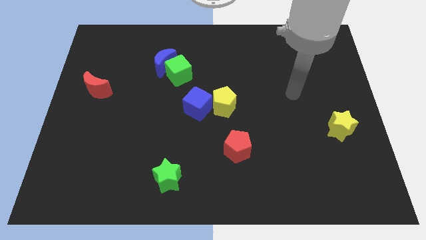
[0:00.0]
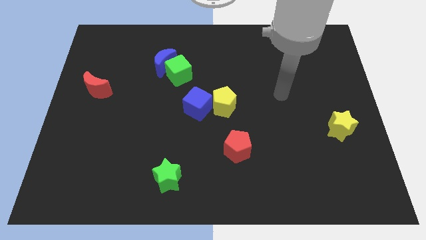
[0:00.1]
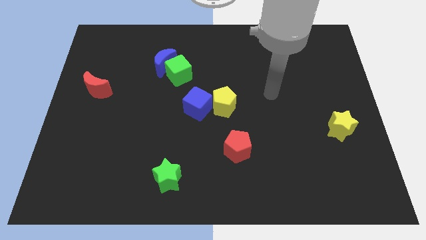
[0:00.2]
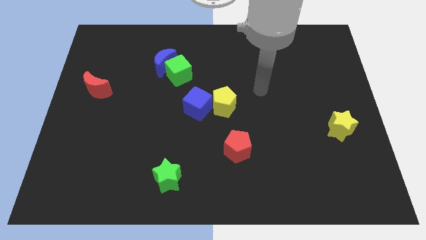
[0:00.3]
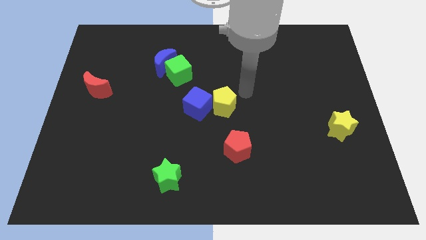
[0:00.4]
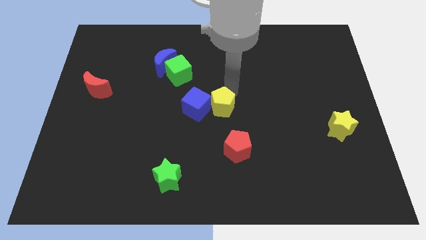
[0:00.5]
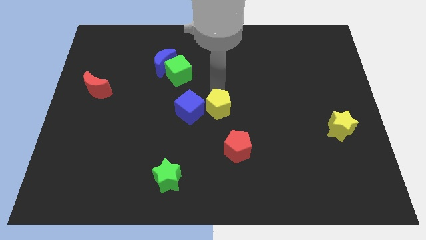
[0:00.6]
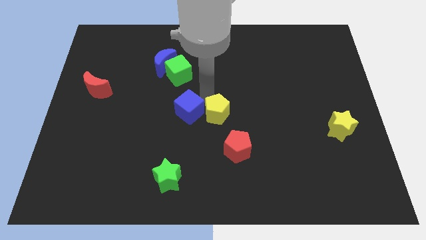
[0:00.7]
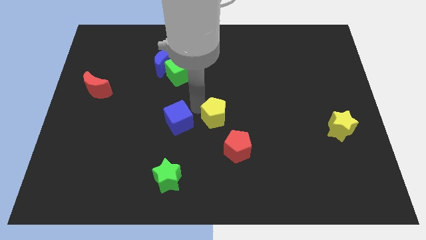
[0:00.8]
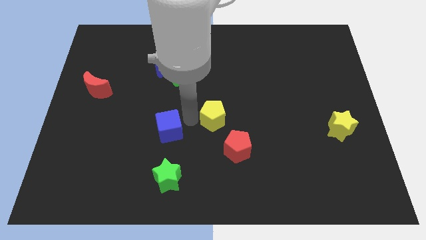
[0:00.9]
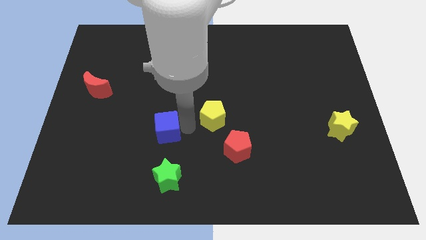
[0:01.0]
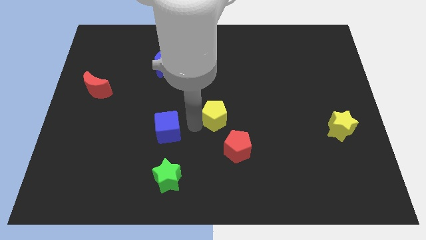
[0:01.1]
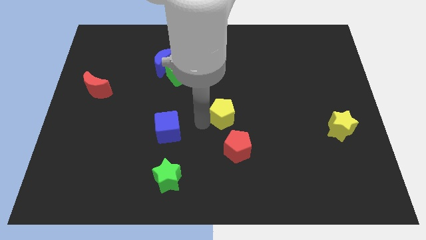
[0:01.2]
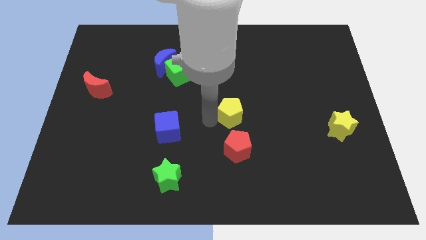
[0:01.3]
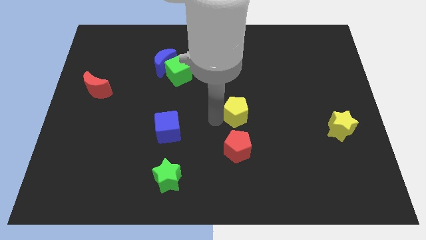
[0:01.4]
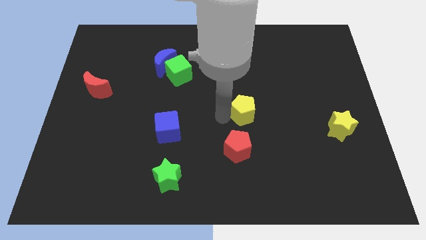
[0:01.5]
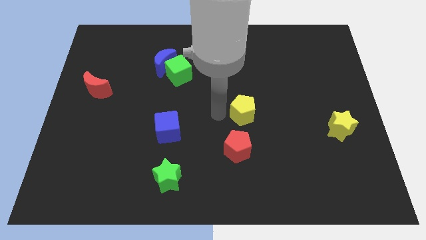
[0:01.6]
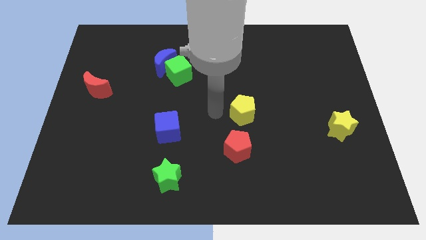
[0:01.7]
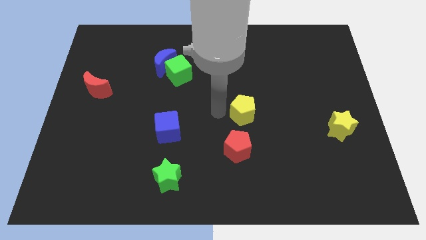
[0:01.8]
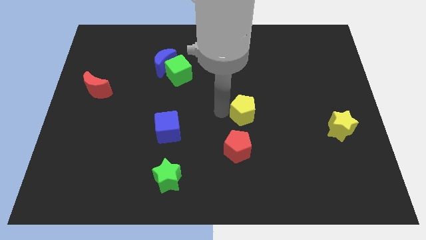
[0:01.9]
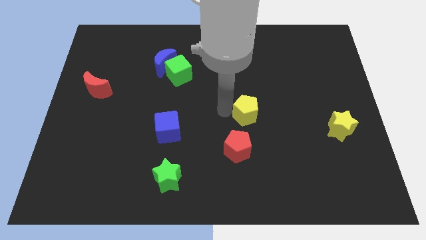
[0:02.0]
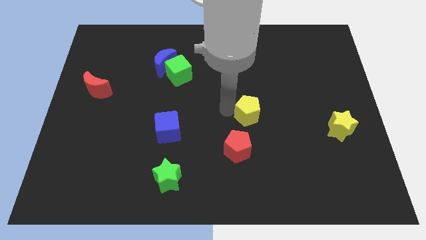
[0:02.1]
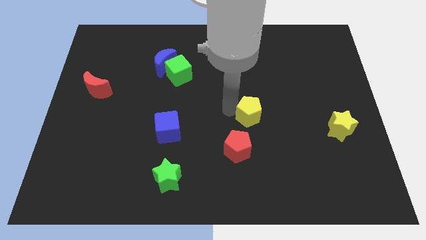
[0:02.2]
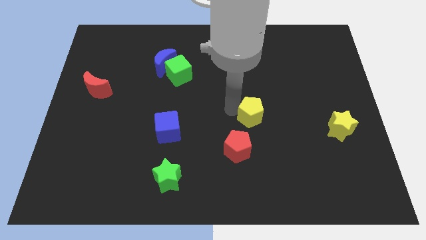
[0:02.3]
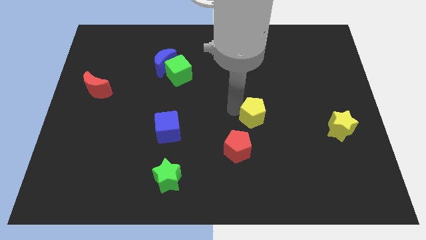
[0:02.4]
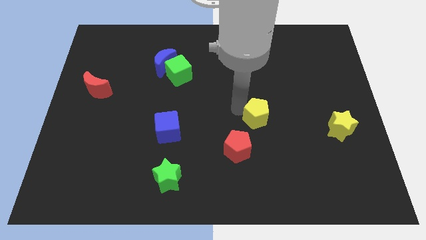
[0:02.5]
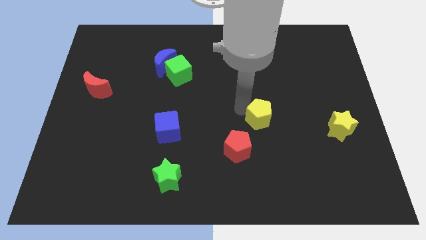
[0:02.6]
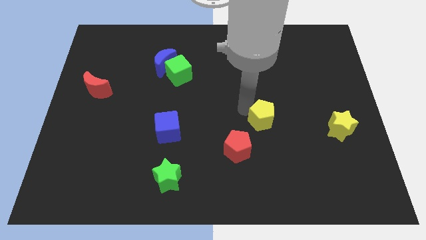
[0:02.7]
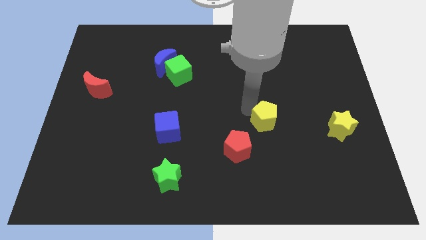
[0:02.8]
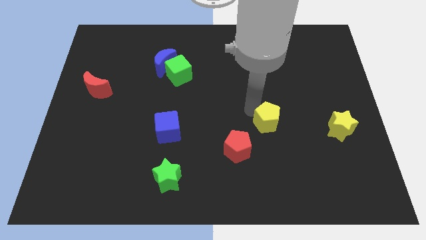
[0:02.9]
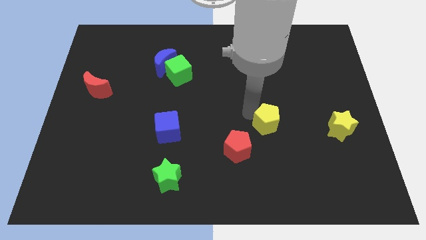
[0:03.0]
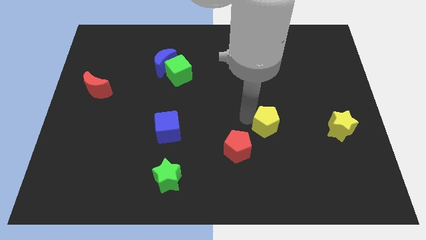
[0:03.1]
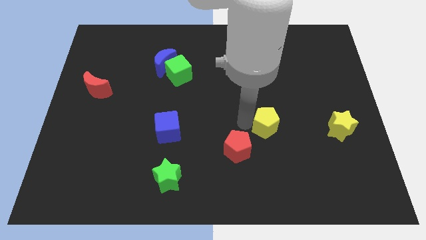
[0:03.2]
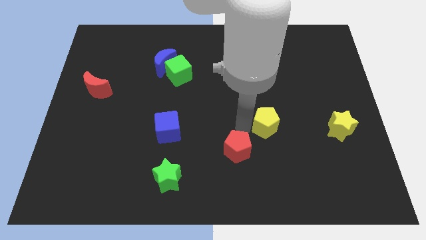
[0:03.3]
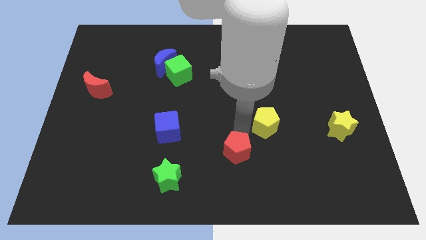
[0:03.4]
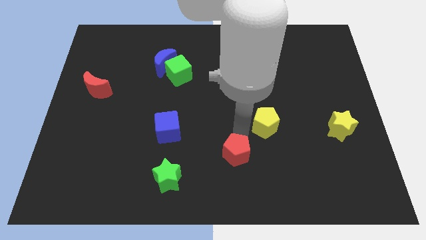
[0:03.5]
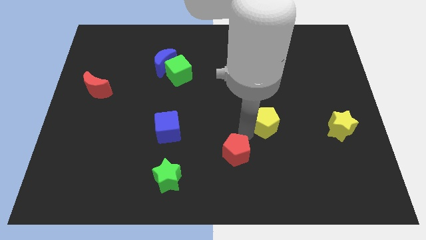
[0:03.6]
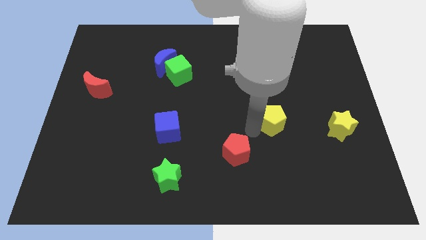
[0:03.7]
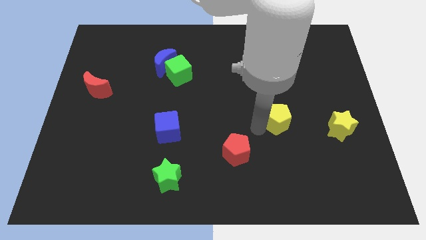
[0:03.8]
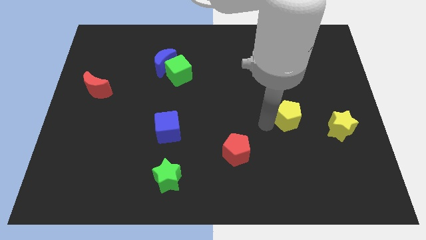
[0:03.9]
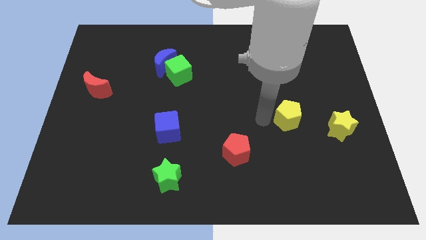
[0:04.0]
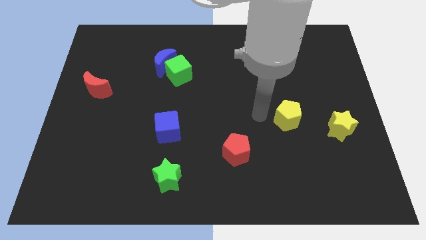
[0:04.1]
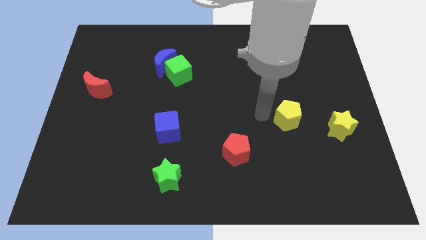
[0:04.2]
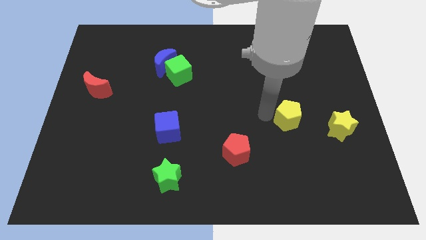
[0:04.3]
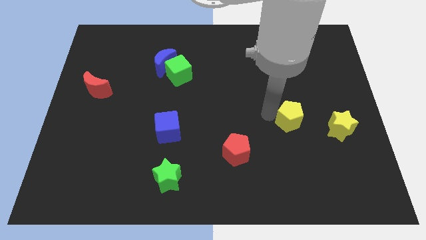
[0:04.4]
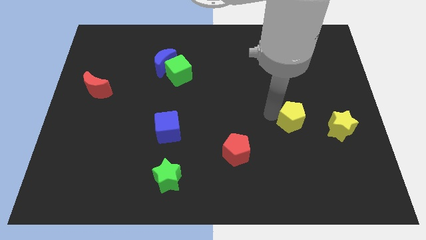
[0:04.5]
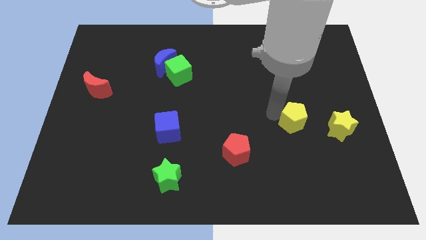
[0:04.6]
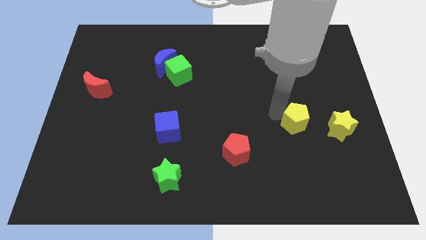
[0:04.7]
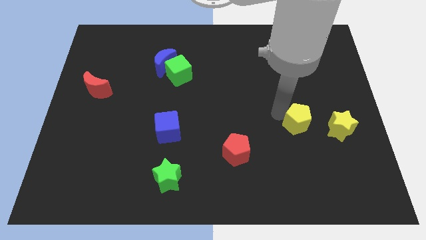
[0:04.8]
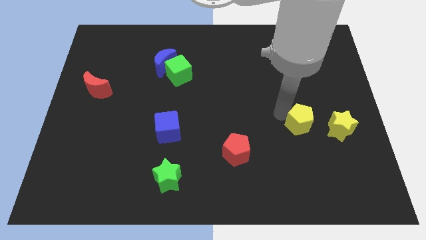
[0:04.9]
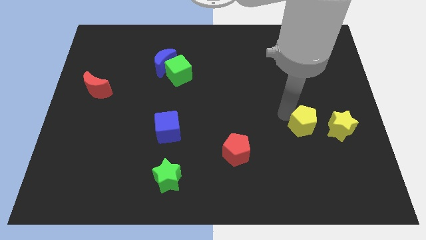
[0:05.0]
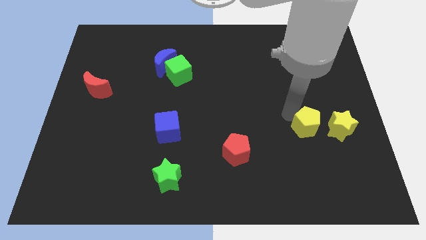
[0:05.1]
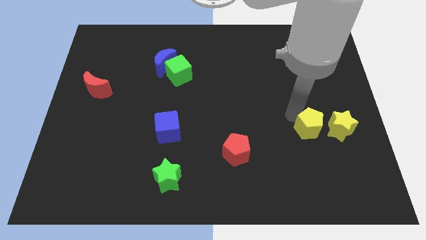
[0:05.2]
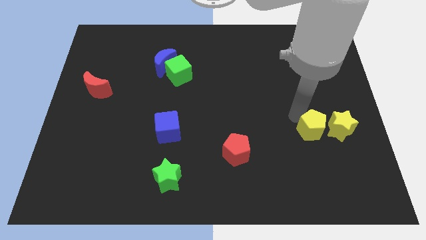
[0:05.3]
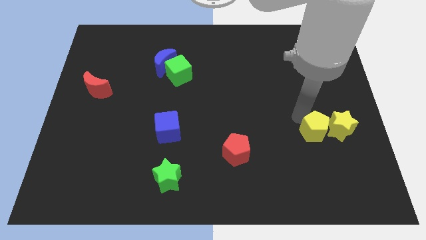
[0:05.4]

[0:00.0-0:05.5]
slide the yellow pentagon next to the yellow star

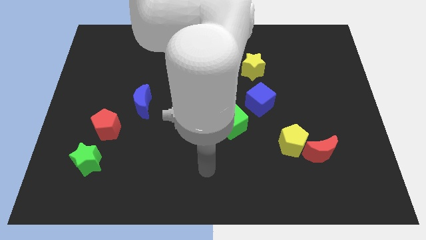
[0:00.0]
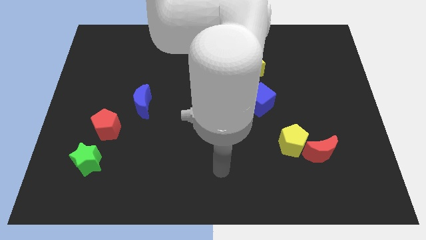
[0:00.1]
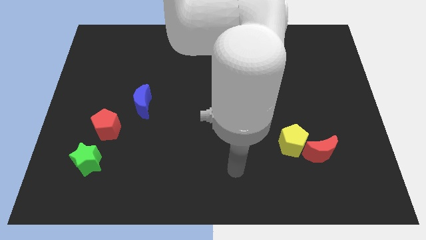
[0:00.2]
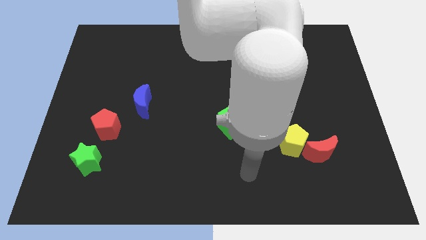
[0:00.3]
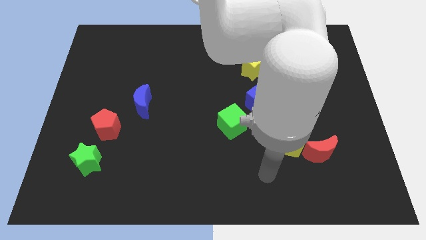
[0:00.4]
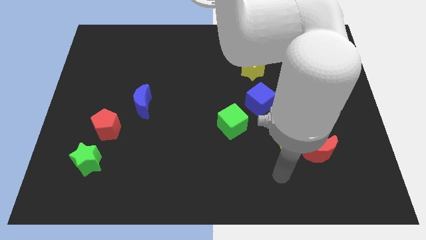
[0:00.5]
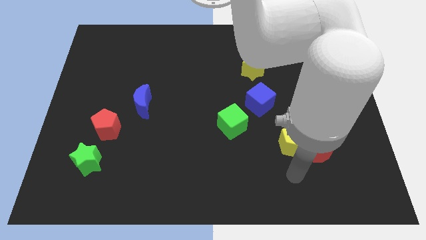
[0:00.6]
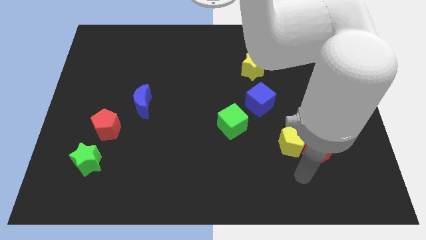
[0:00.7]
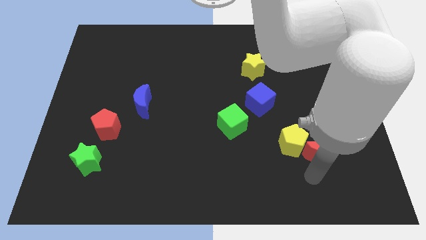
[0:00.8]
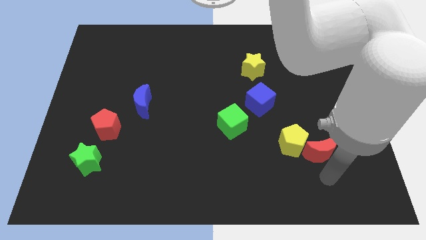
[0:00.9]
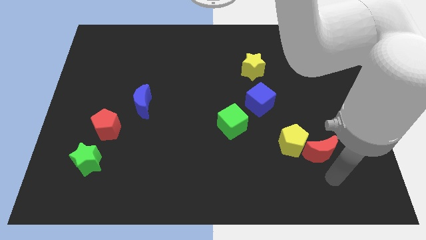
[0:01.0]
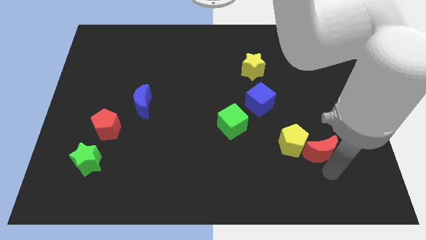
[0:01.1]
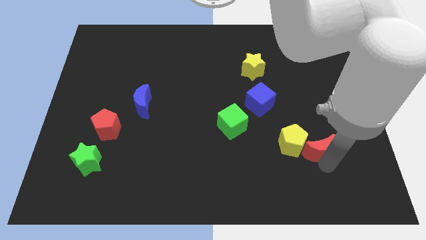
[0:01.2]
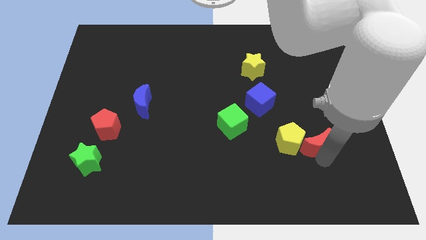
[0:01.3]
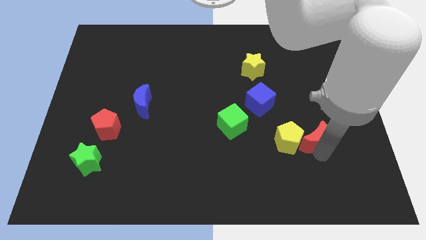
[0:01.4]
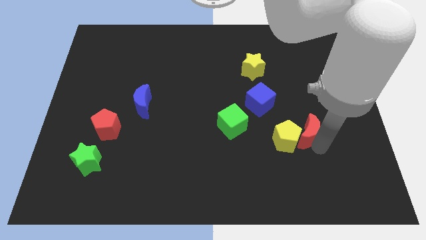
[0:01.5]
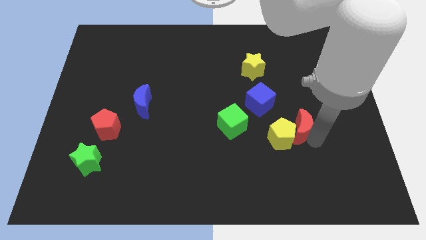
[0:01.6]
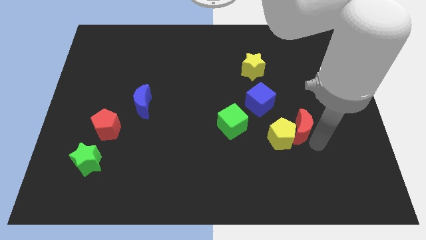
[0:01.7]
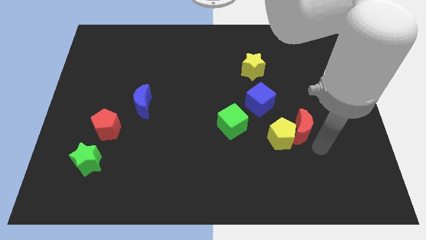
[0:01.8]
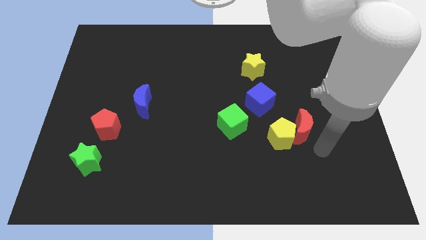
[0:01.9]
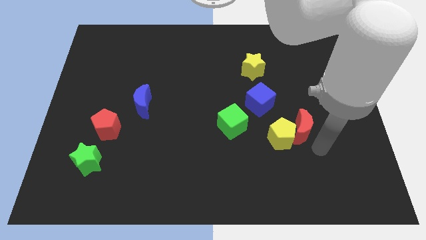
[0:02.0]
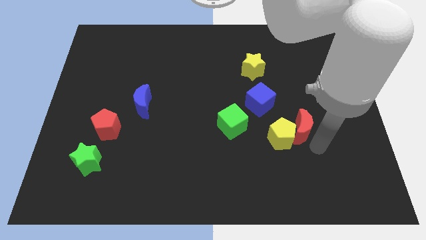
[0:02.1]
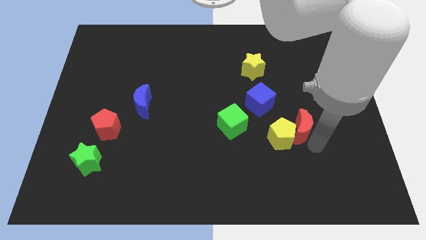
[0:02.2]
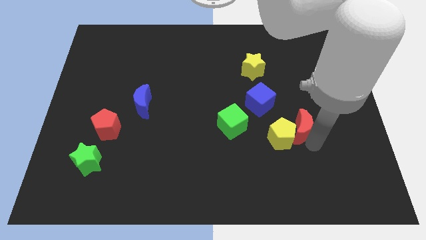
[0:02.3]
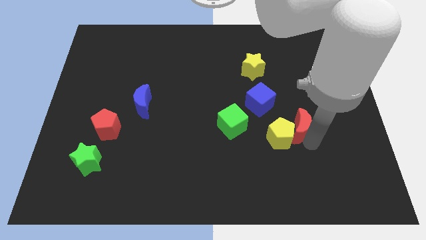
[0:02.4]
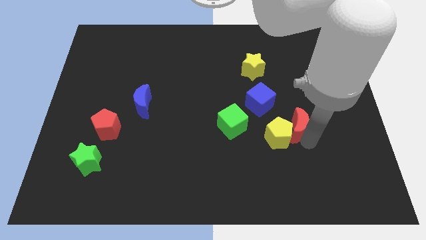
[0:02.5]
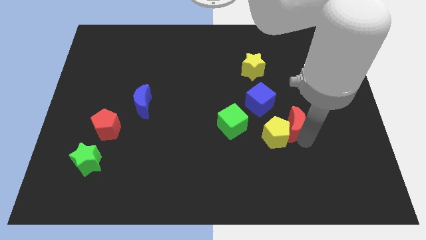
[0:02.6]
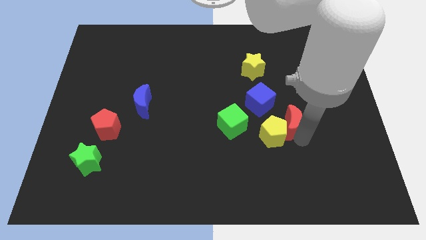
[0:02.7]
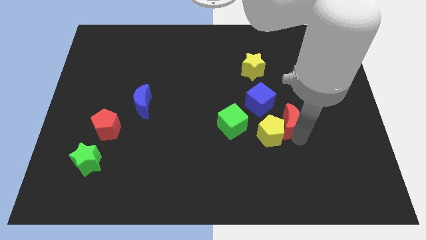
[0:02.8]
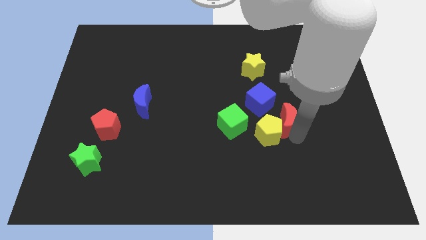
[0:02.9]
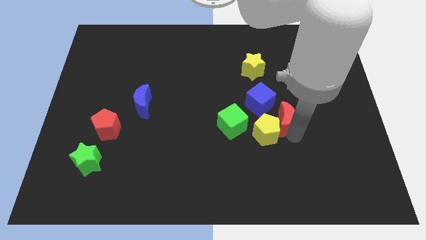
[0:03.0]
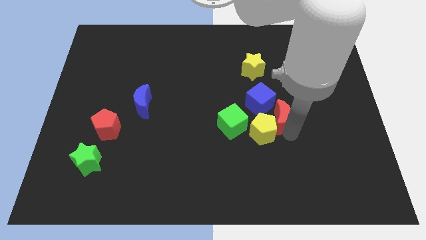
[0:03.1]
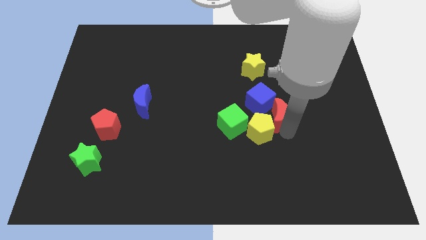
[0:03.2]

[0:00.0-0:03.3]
put the red moon close to the blue cube
